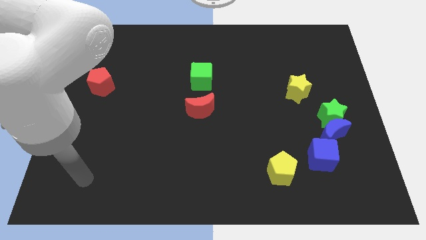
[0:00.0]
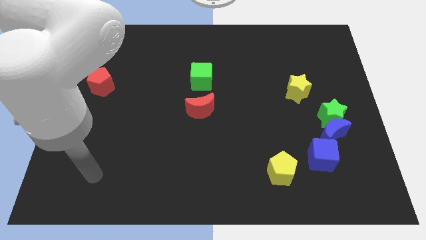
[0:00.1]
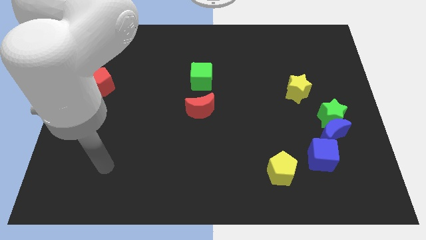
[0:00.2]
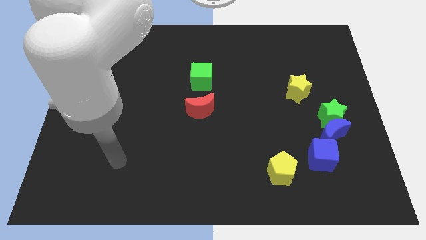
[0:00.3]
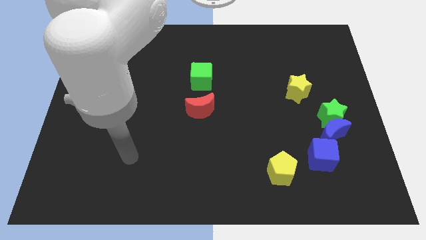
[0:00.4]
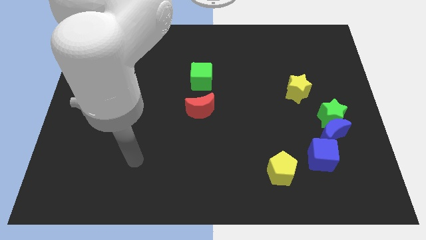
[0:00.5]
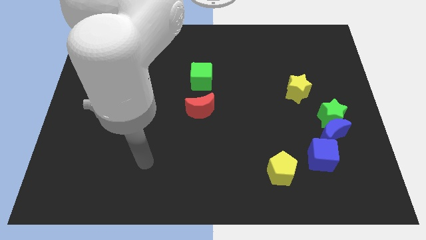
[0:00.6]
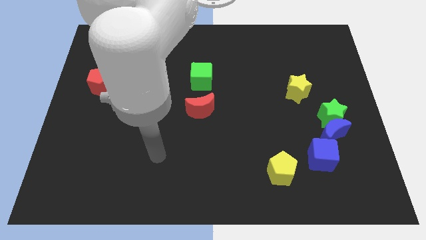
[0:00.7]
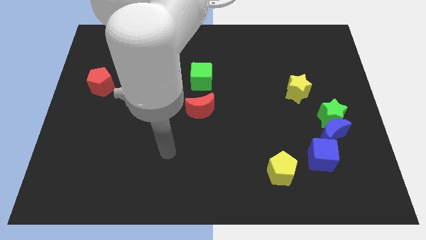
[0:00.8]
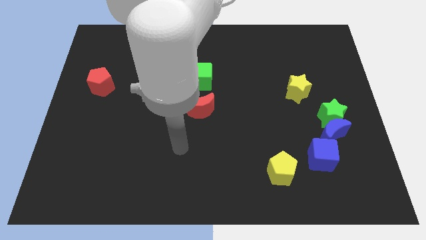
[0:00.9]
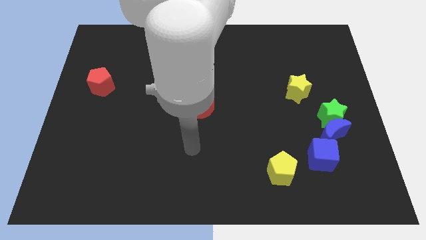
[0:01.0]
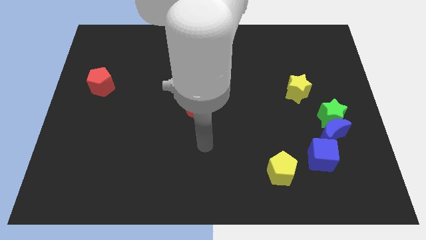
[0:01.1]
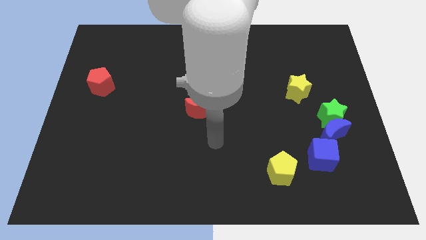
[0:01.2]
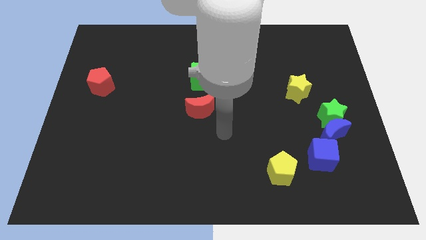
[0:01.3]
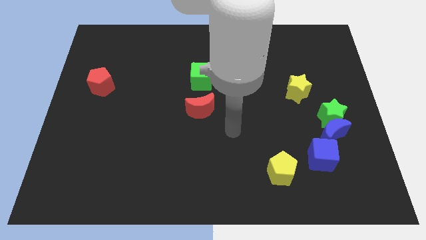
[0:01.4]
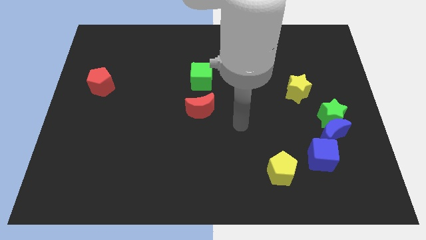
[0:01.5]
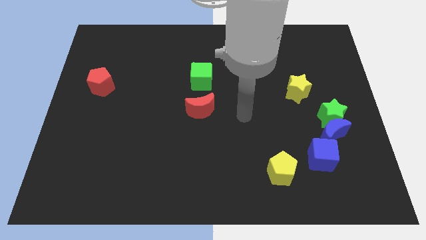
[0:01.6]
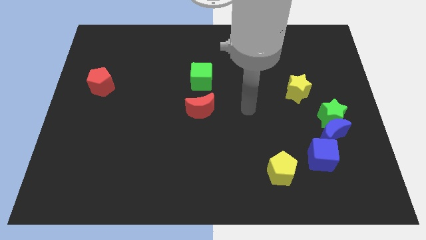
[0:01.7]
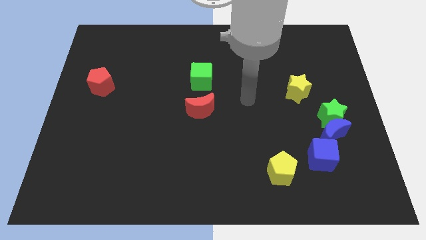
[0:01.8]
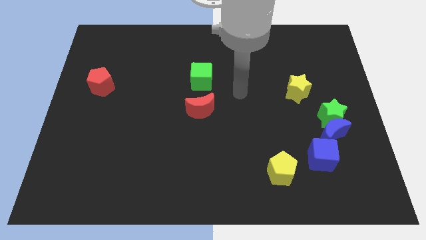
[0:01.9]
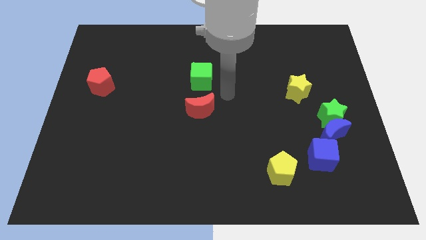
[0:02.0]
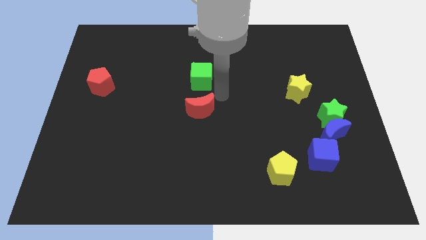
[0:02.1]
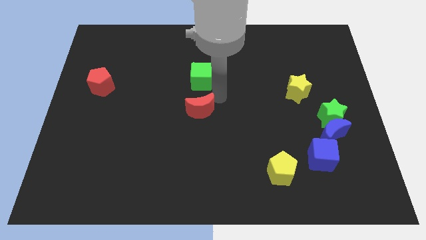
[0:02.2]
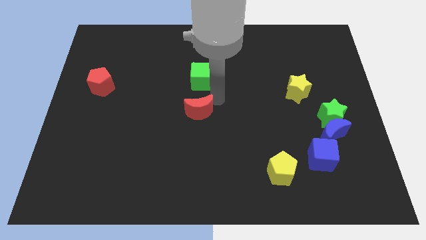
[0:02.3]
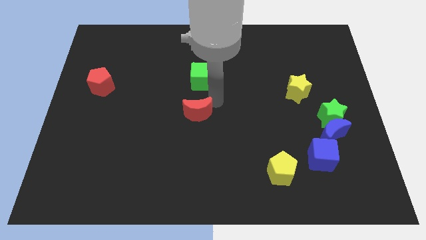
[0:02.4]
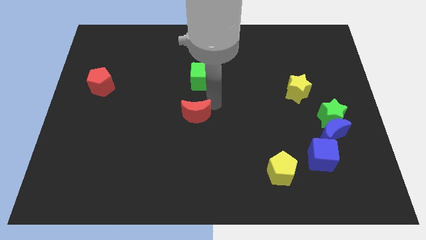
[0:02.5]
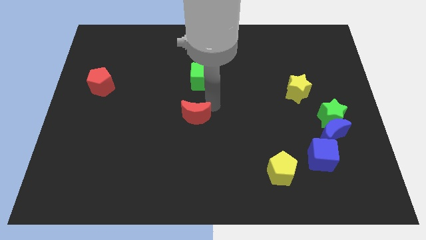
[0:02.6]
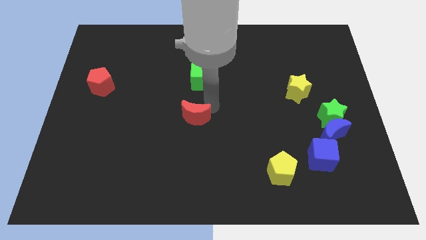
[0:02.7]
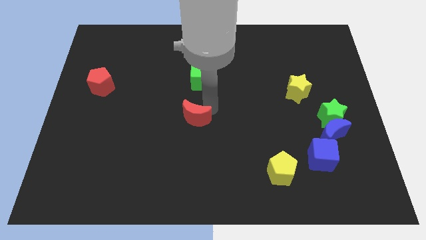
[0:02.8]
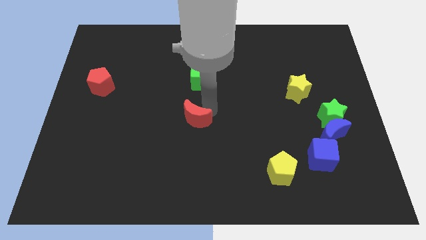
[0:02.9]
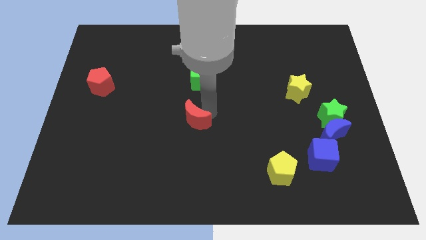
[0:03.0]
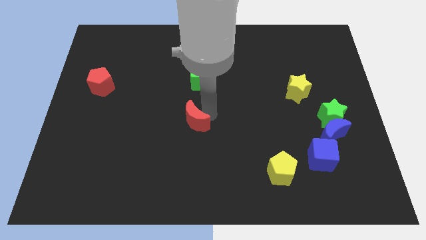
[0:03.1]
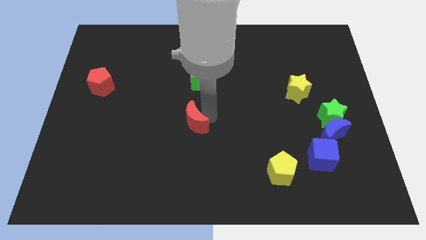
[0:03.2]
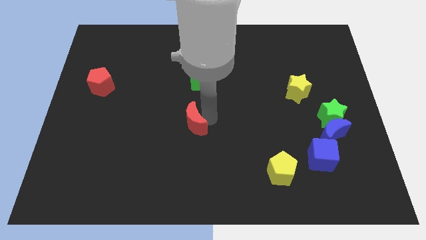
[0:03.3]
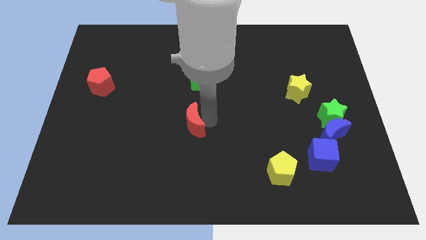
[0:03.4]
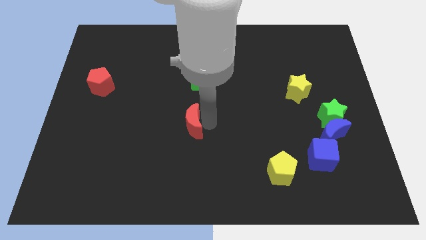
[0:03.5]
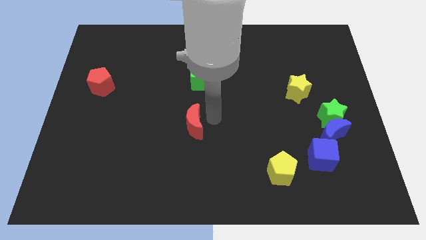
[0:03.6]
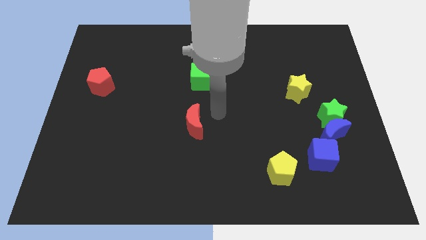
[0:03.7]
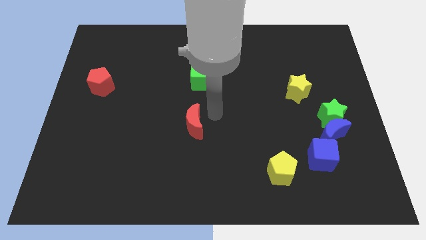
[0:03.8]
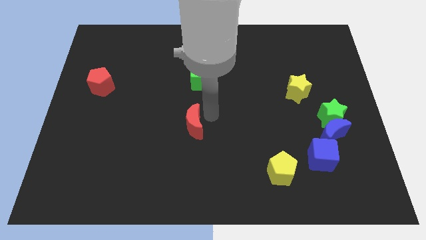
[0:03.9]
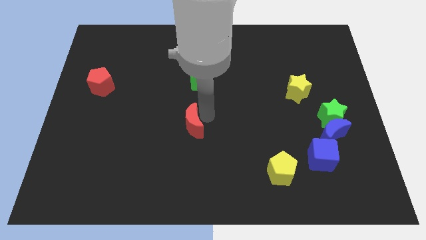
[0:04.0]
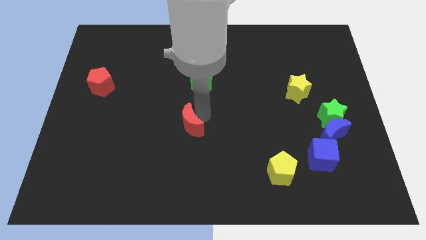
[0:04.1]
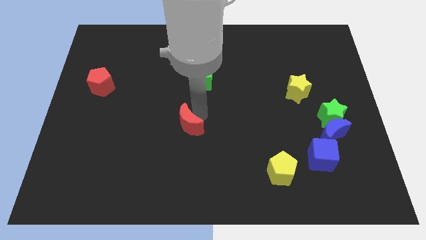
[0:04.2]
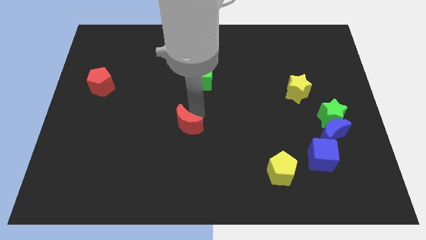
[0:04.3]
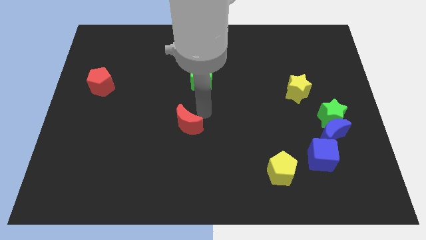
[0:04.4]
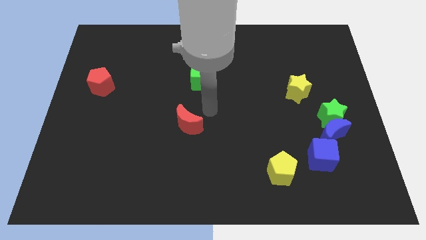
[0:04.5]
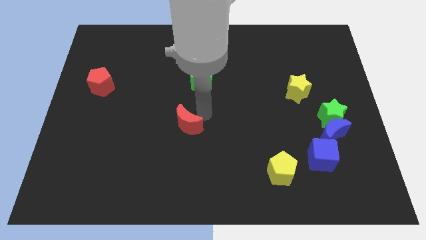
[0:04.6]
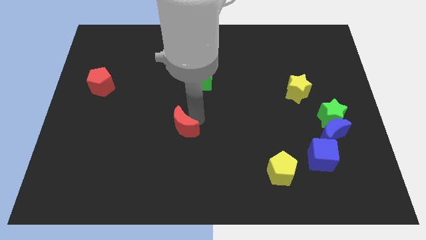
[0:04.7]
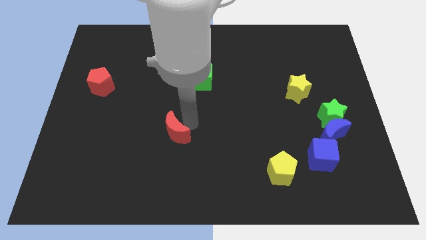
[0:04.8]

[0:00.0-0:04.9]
move the red moon somewhat down and then left

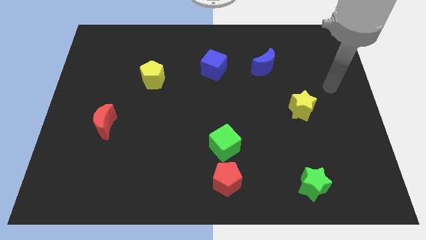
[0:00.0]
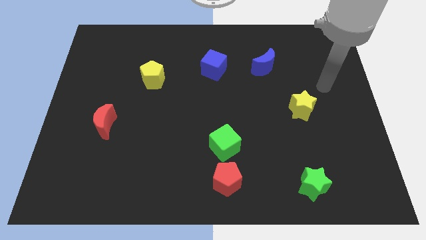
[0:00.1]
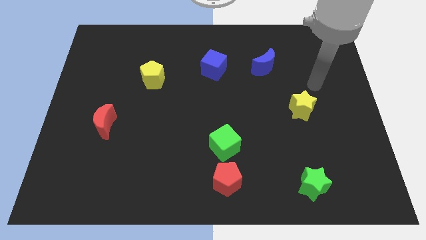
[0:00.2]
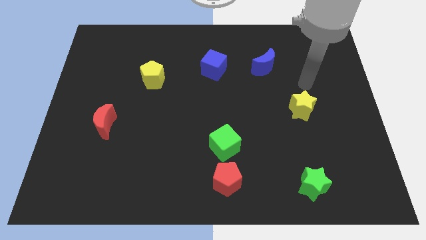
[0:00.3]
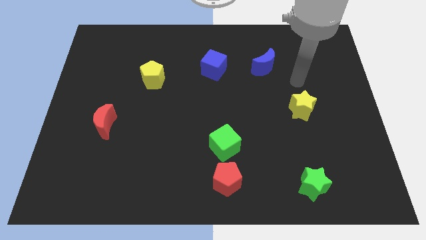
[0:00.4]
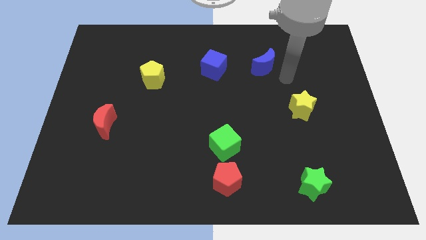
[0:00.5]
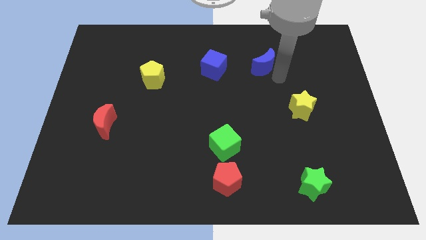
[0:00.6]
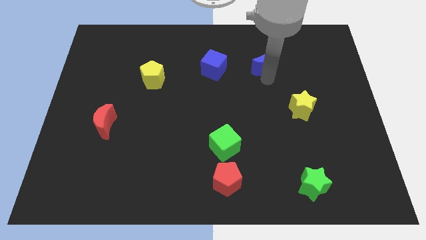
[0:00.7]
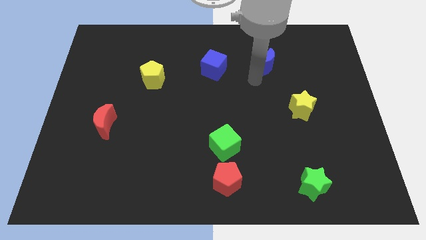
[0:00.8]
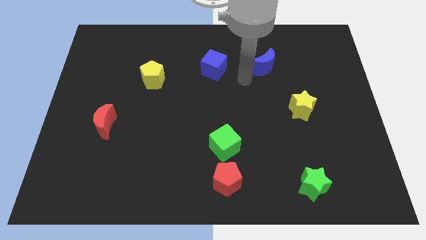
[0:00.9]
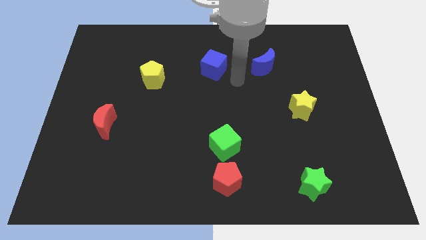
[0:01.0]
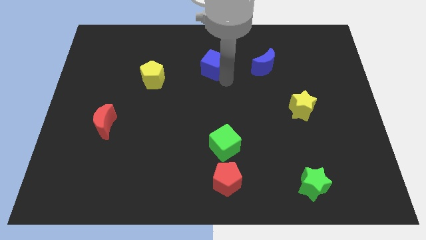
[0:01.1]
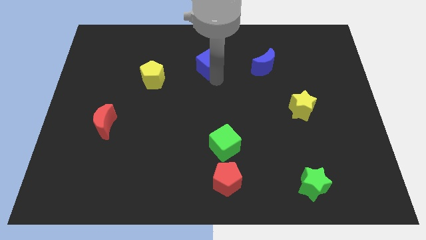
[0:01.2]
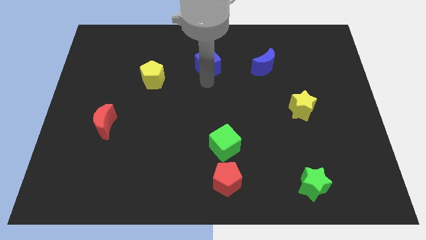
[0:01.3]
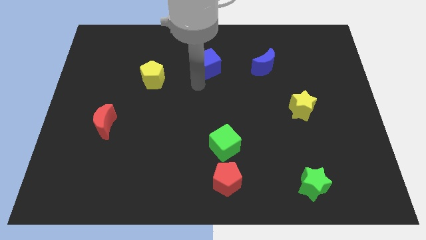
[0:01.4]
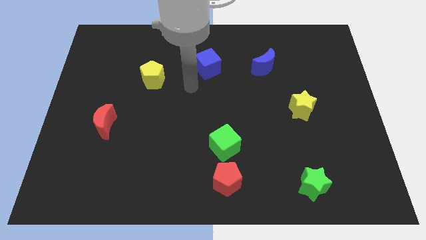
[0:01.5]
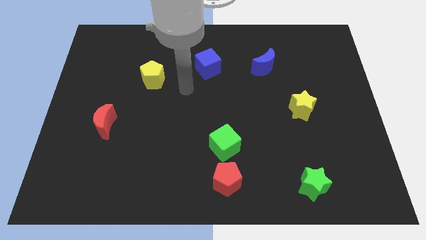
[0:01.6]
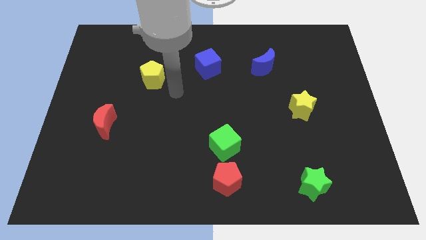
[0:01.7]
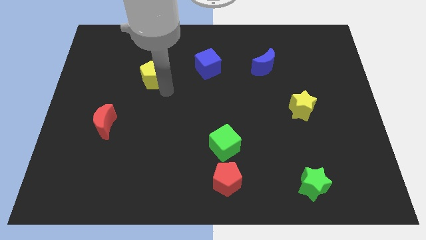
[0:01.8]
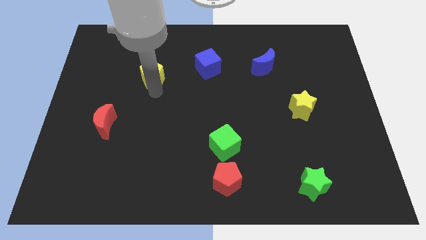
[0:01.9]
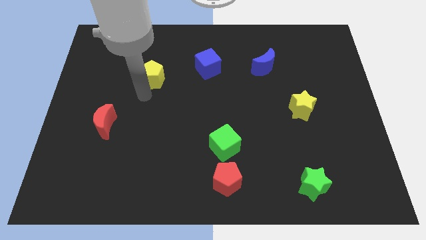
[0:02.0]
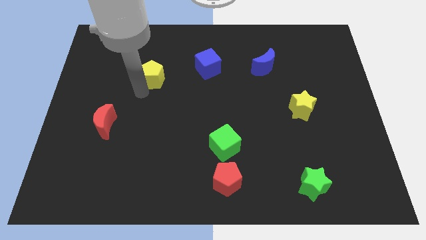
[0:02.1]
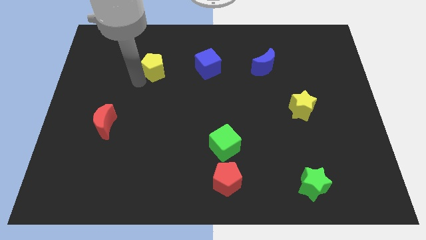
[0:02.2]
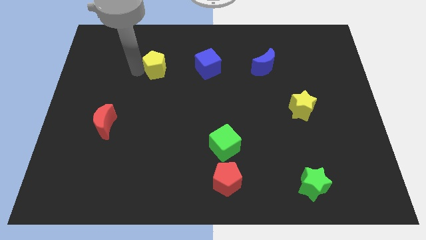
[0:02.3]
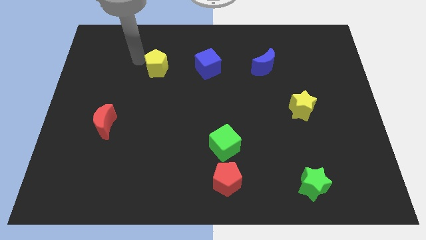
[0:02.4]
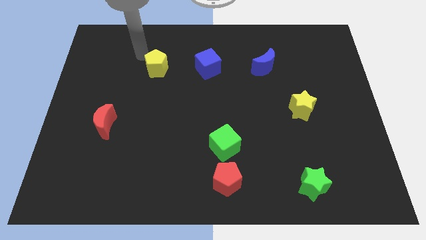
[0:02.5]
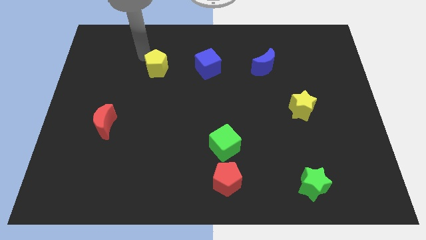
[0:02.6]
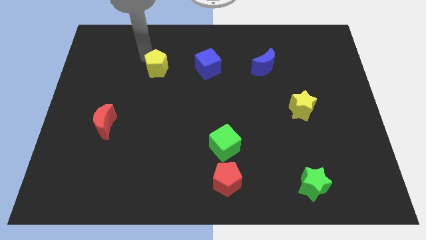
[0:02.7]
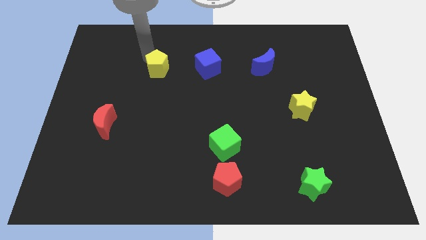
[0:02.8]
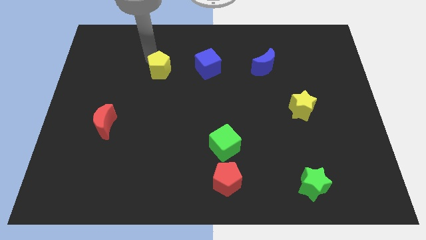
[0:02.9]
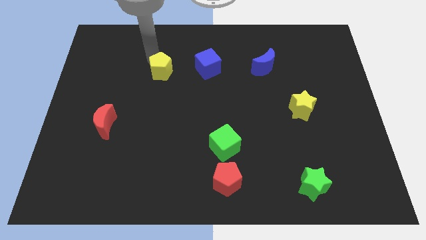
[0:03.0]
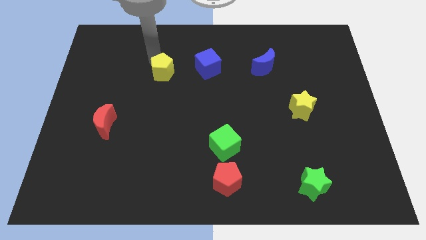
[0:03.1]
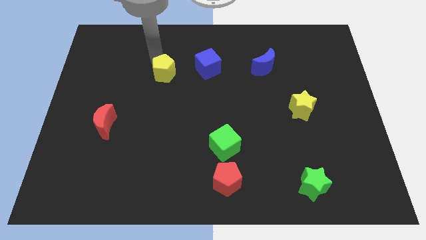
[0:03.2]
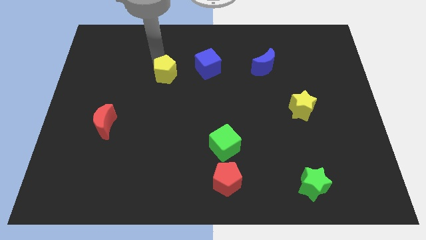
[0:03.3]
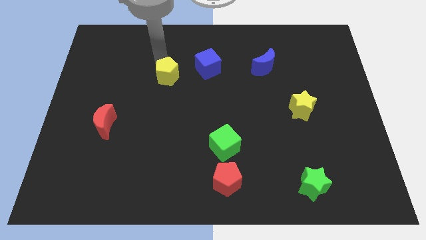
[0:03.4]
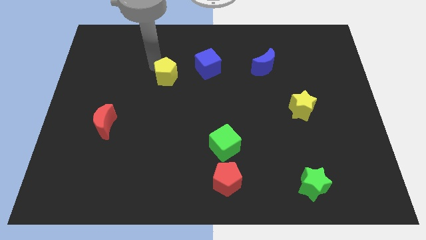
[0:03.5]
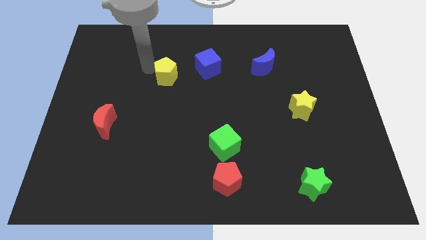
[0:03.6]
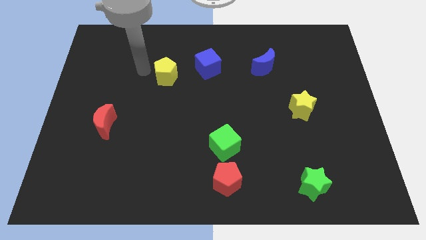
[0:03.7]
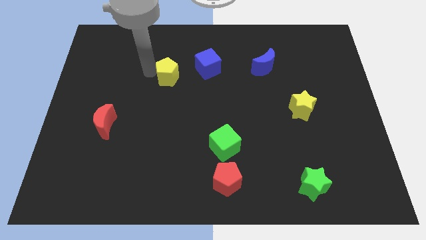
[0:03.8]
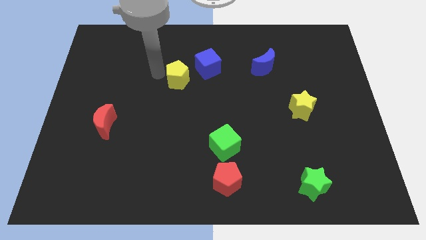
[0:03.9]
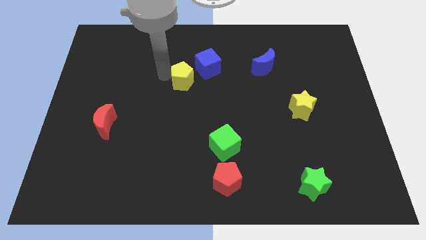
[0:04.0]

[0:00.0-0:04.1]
slightly move the yellow pentagon right
